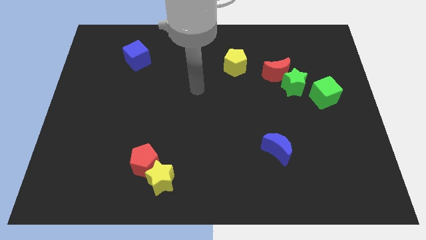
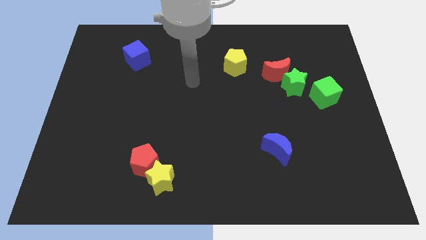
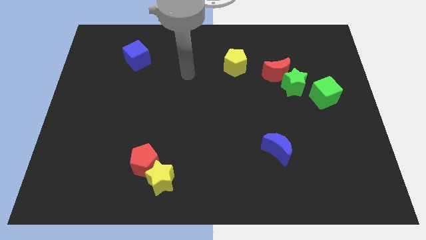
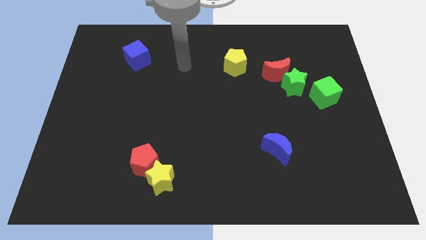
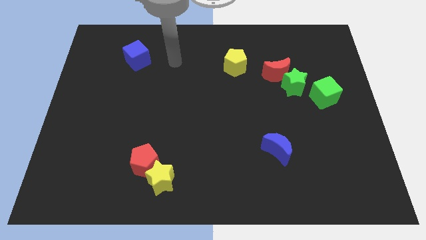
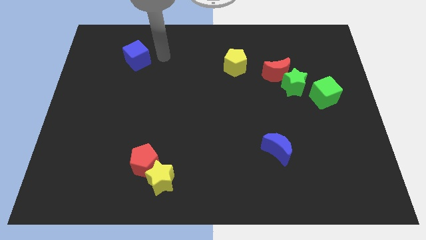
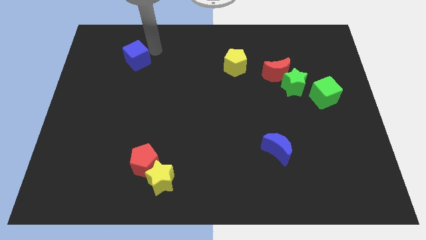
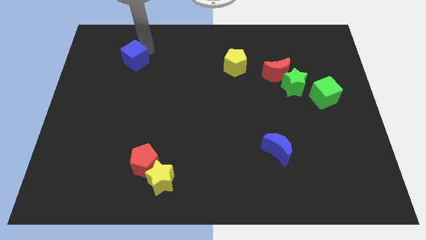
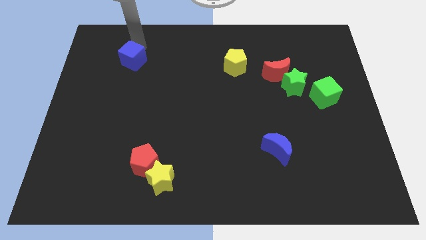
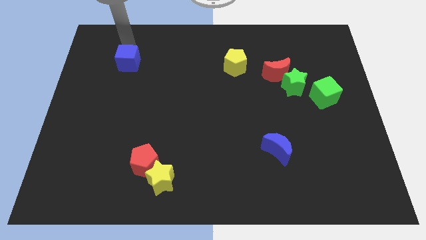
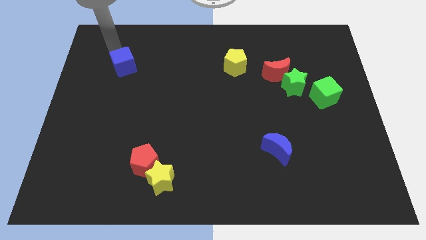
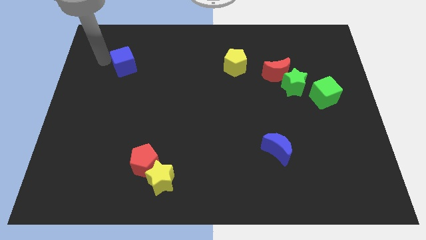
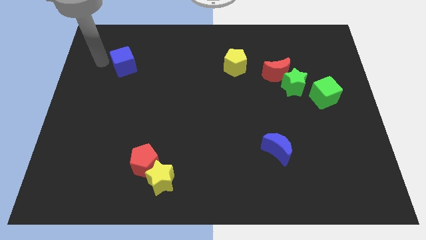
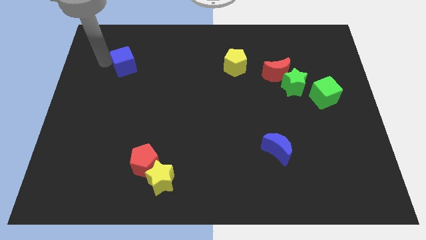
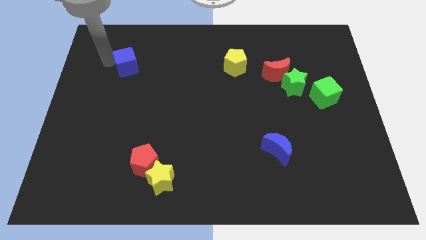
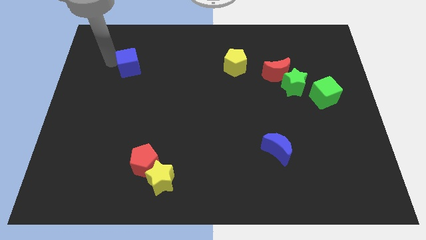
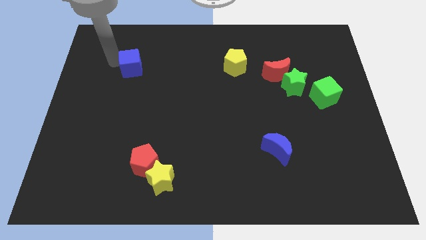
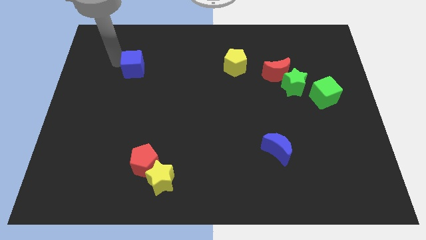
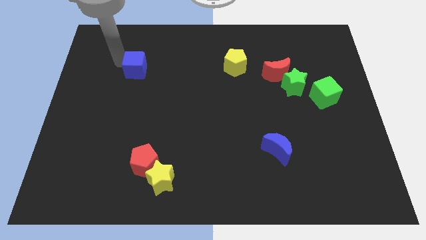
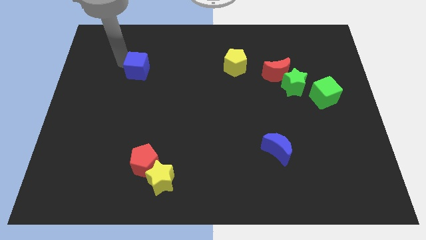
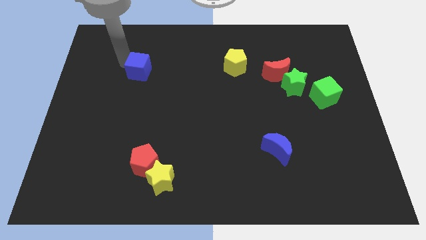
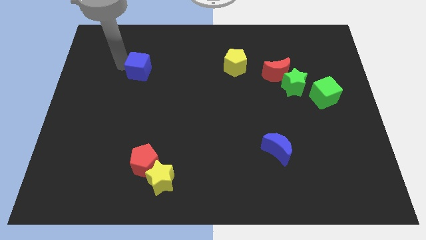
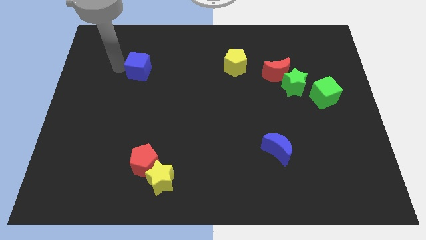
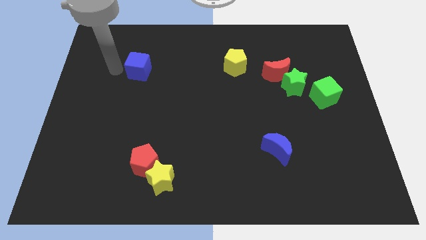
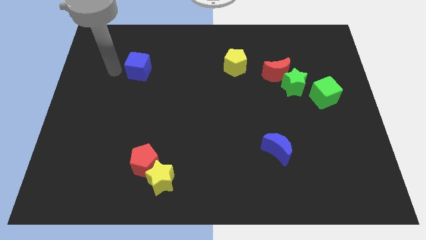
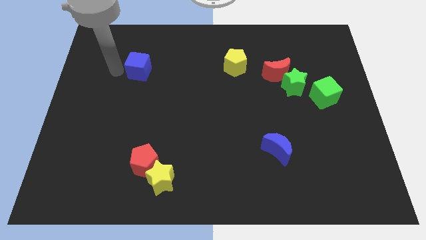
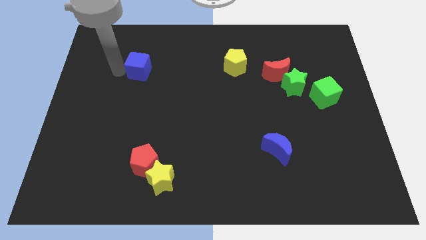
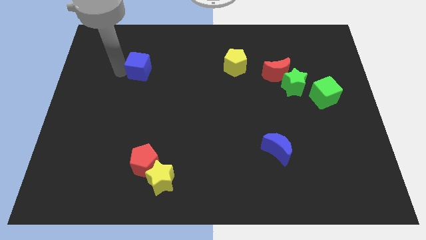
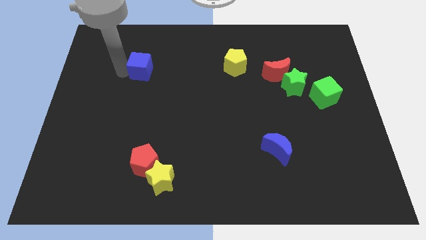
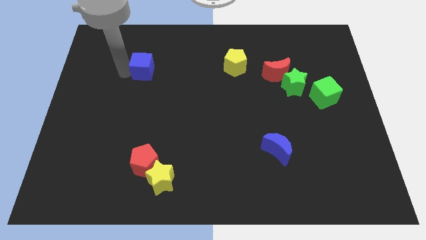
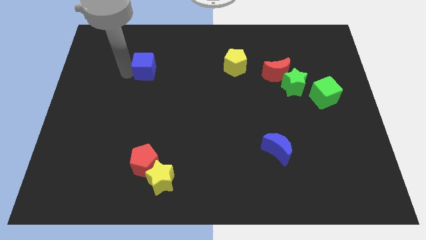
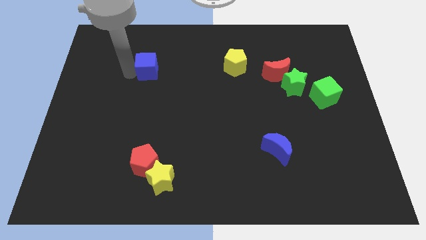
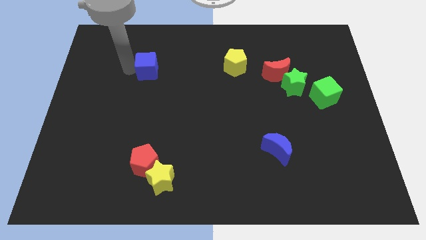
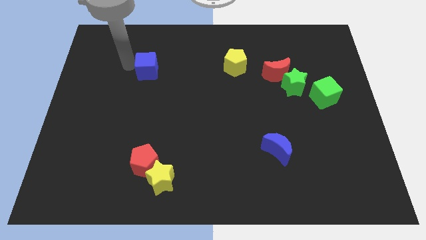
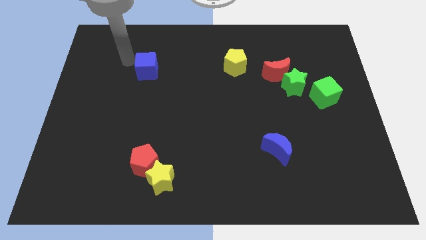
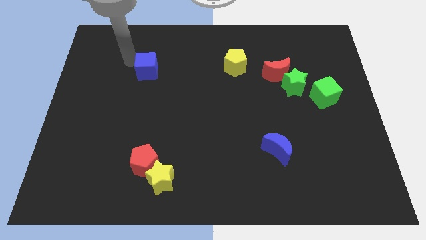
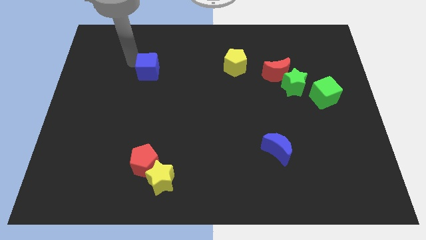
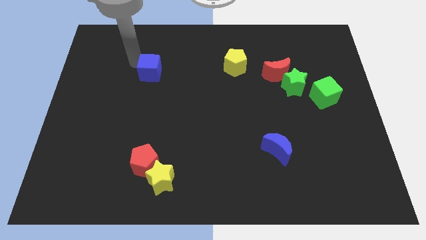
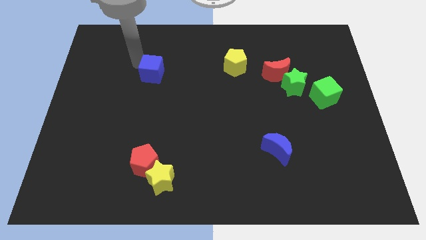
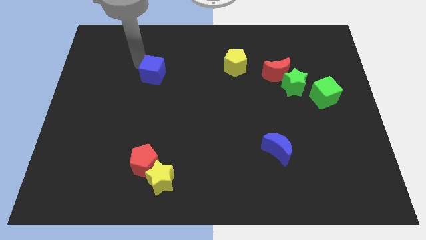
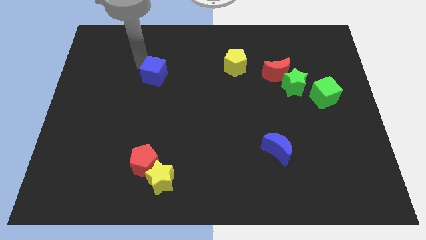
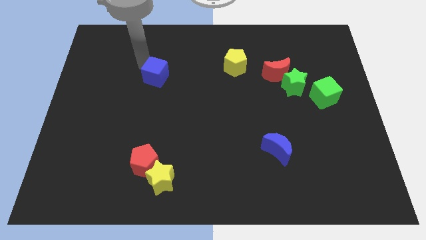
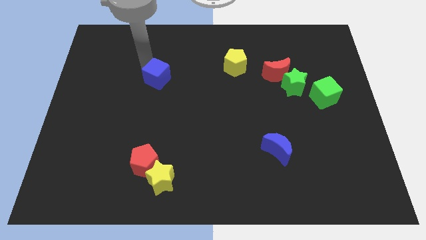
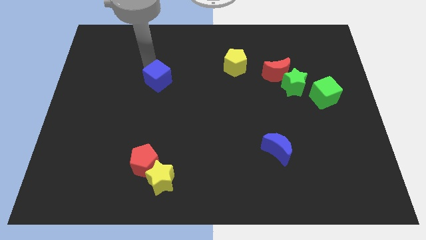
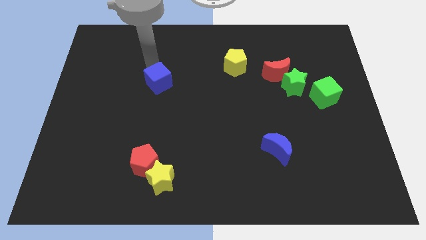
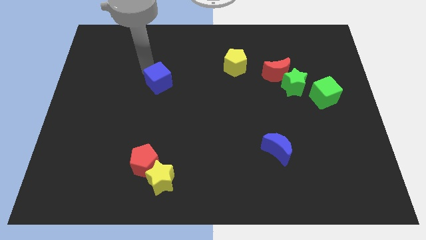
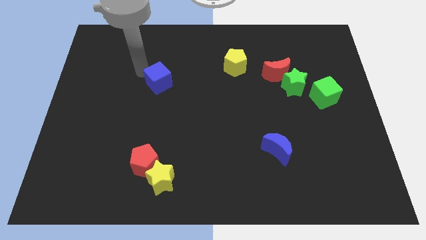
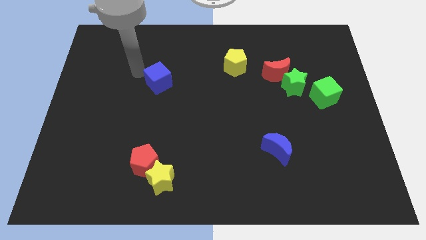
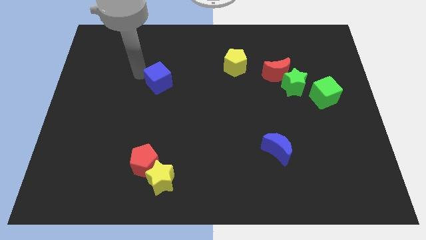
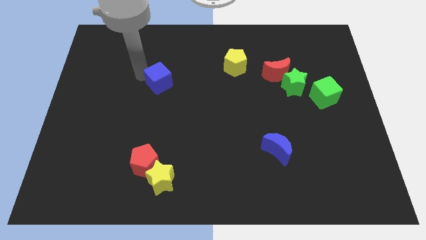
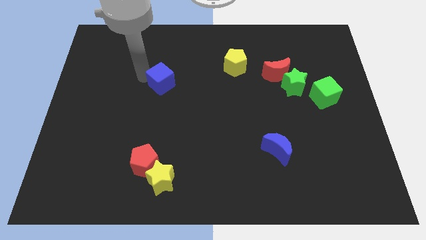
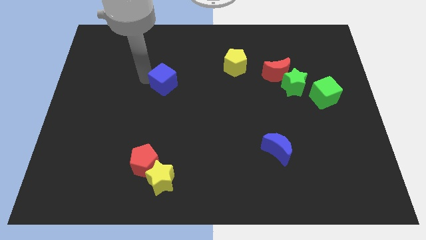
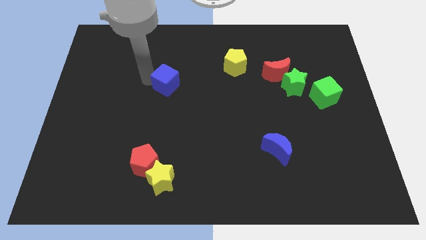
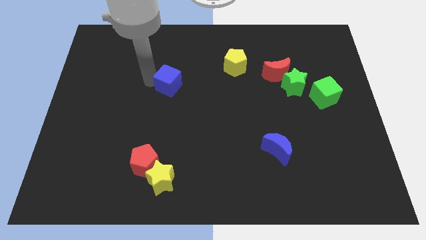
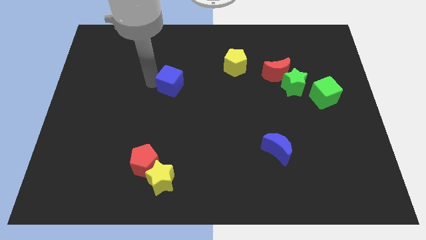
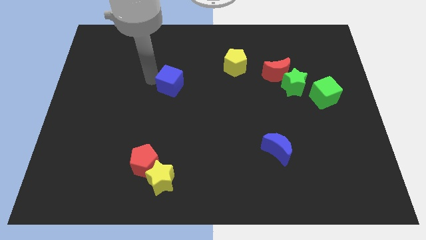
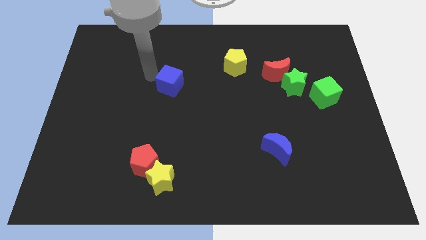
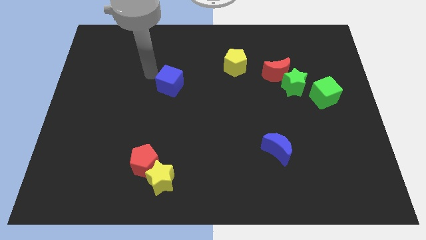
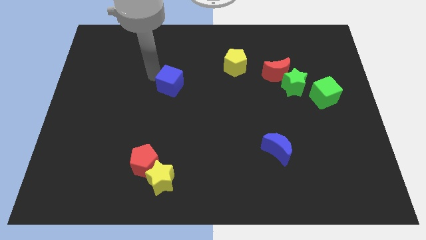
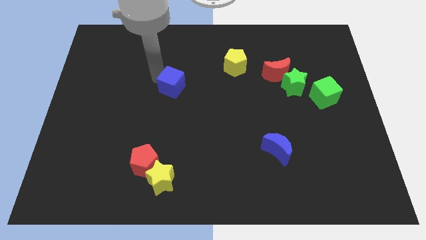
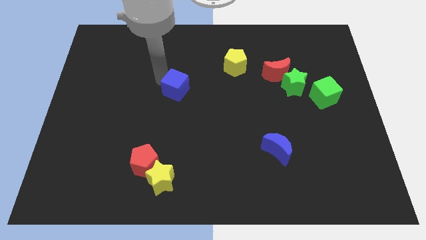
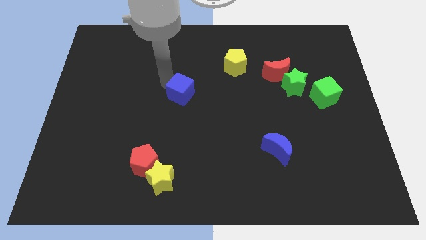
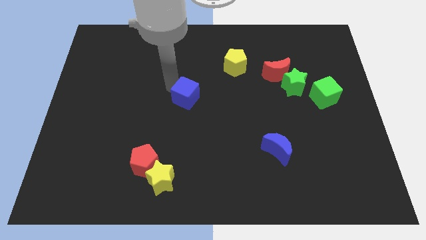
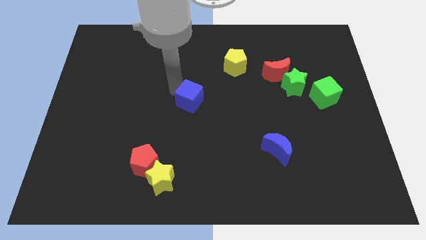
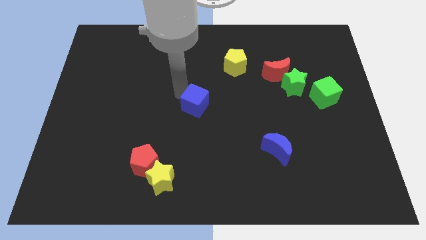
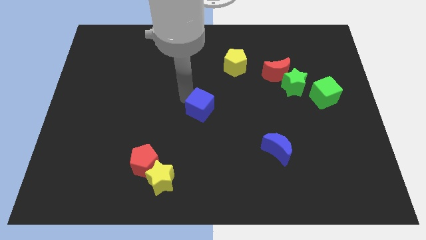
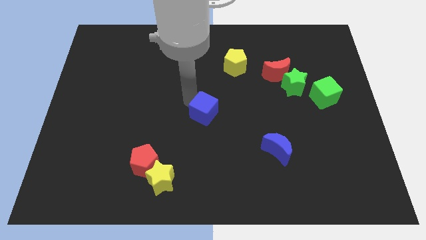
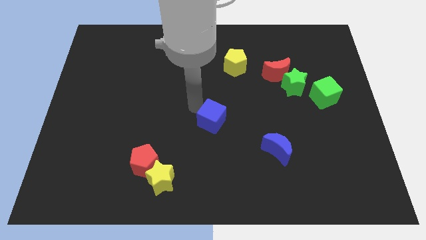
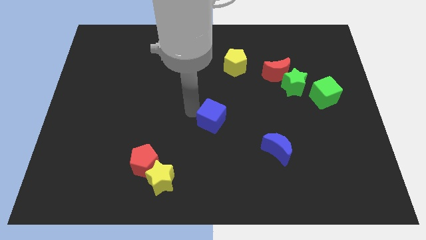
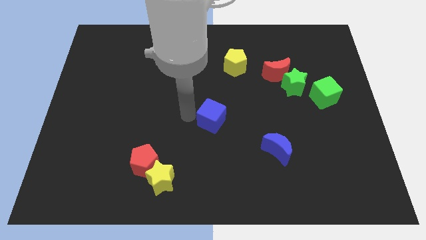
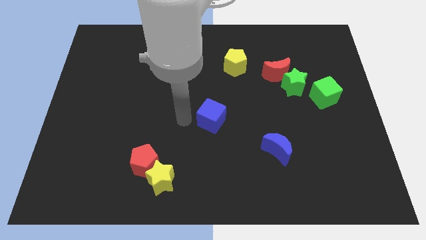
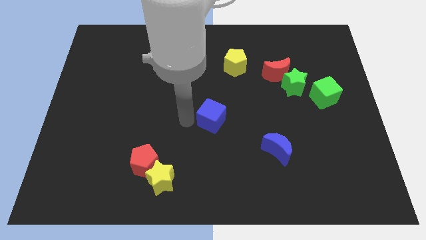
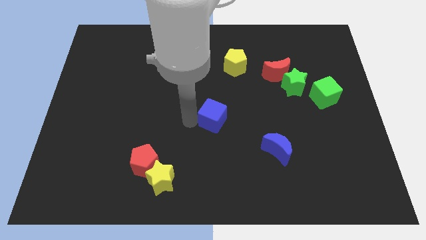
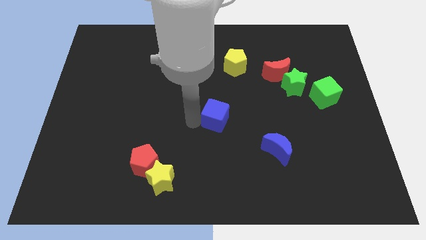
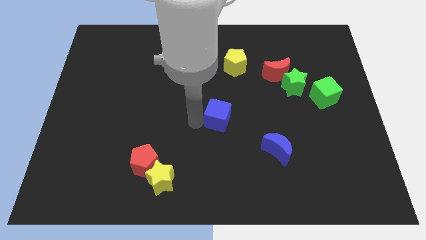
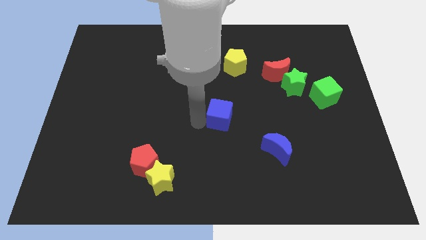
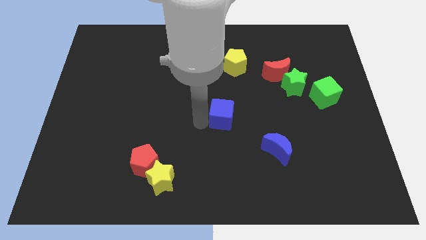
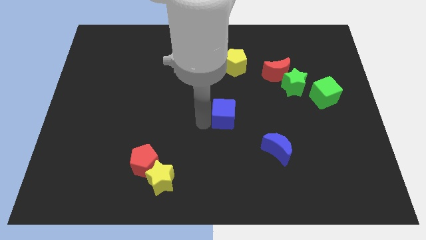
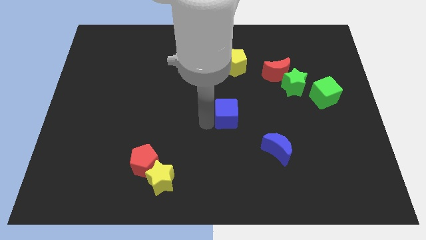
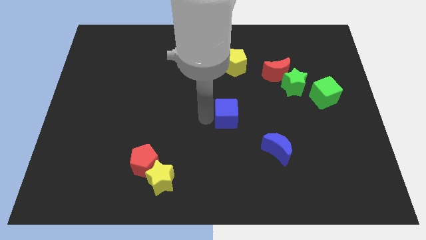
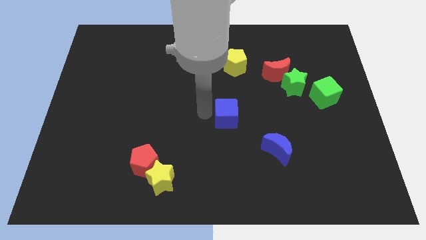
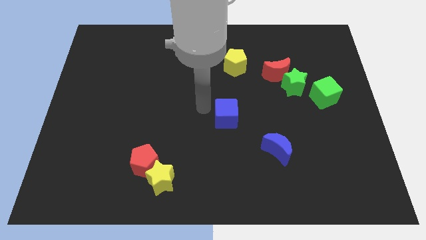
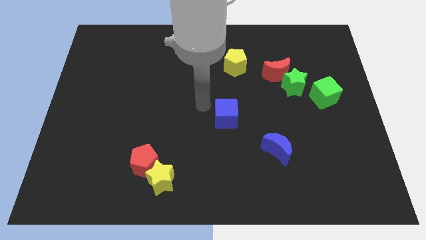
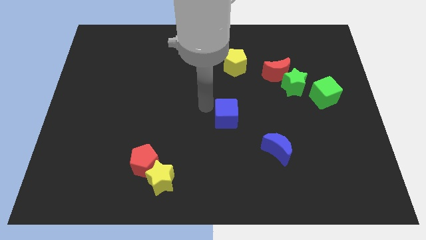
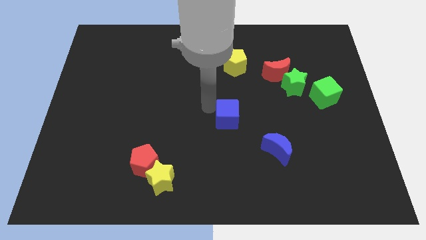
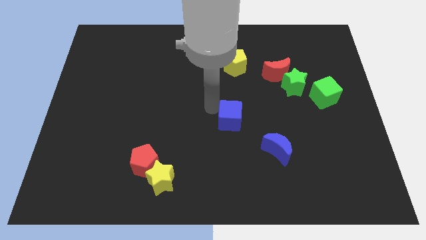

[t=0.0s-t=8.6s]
slide the blue cube diagonally up and to the left of the blue moon
